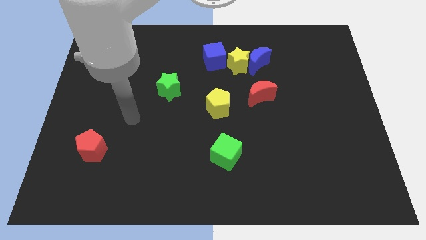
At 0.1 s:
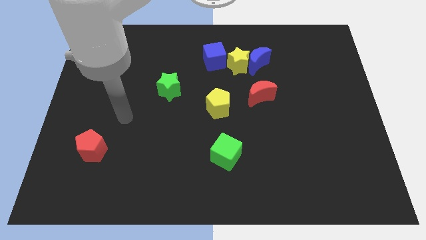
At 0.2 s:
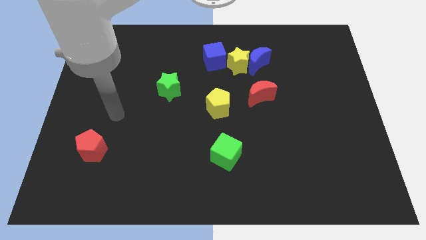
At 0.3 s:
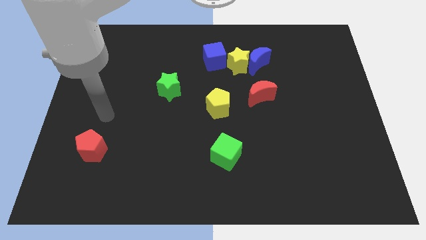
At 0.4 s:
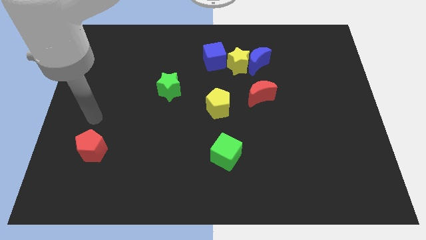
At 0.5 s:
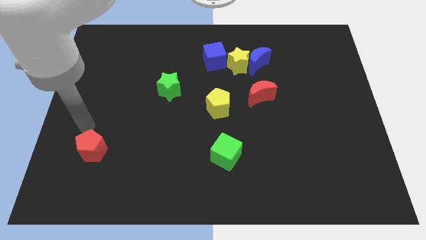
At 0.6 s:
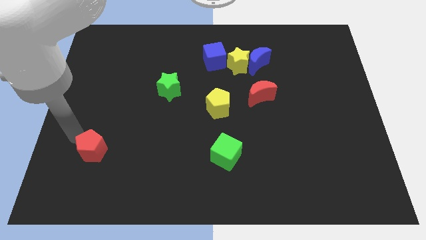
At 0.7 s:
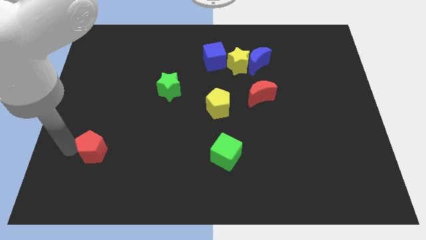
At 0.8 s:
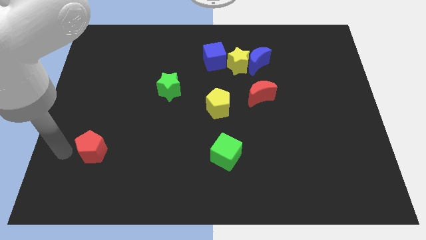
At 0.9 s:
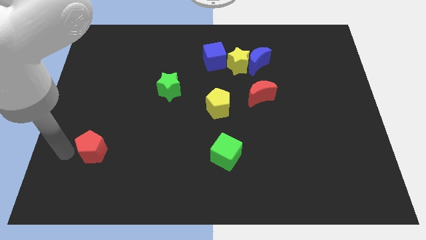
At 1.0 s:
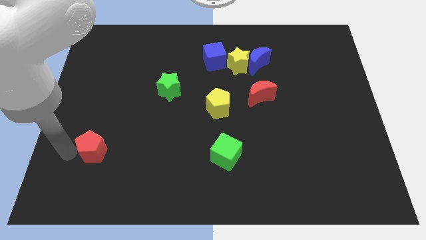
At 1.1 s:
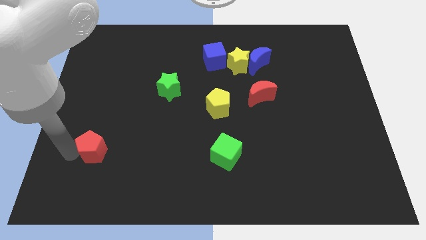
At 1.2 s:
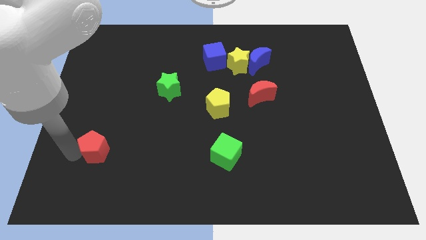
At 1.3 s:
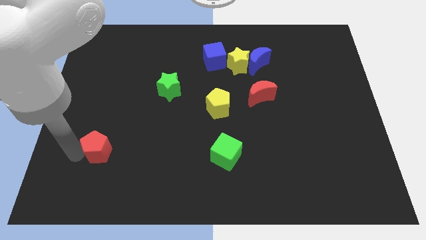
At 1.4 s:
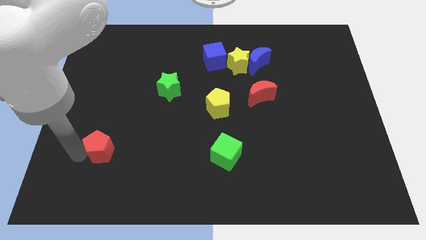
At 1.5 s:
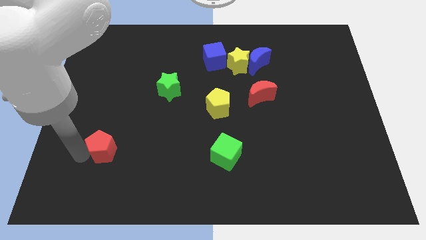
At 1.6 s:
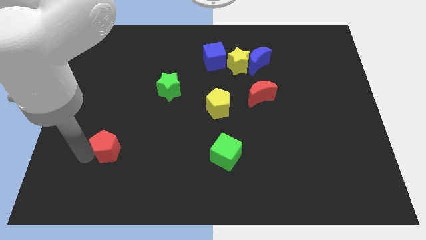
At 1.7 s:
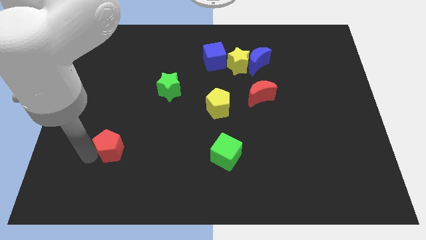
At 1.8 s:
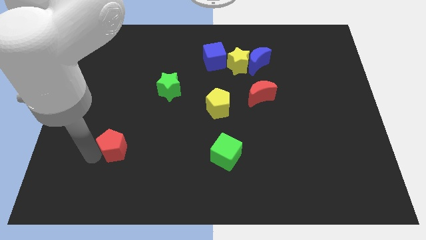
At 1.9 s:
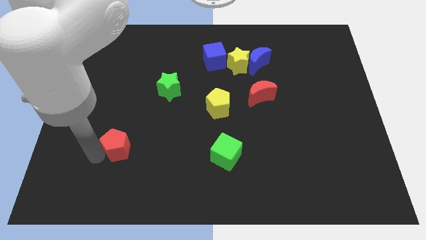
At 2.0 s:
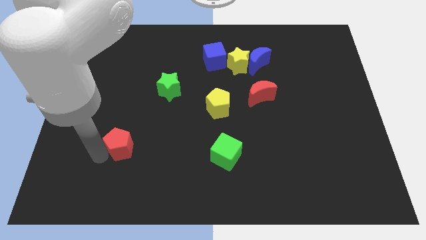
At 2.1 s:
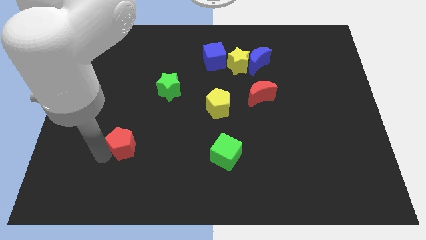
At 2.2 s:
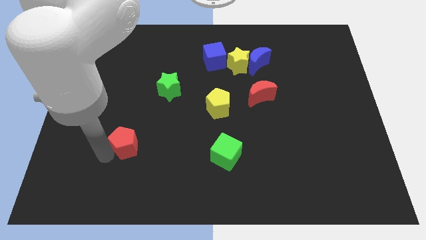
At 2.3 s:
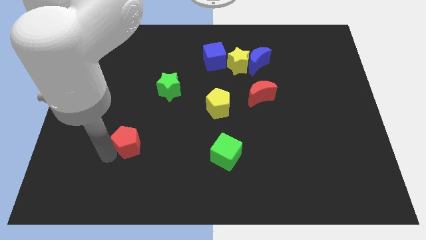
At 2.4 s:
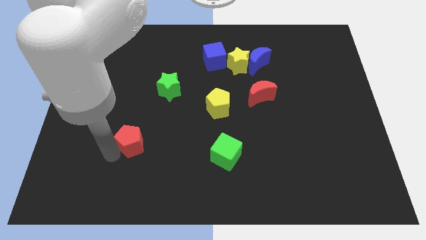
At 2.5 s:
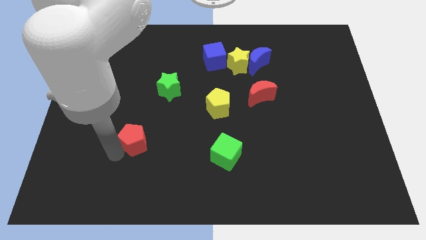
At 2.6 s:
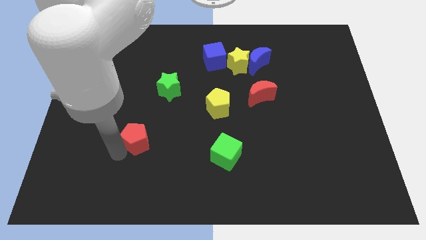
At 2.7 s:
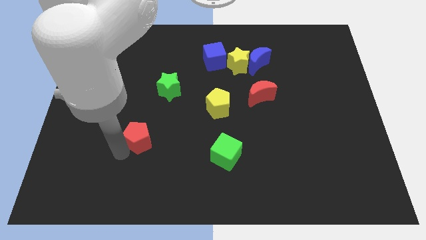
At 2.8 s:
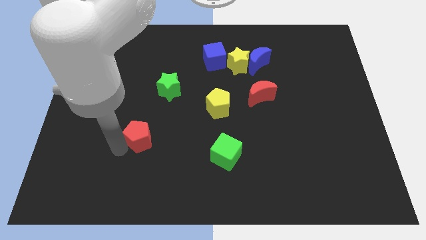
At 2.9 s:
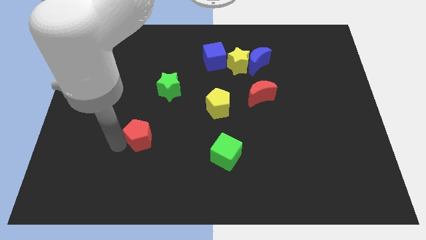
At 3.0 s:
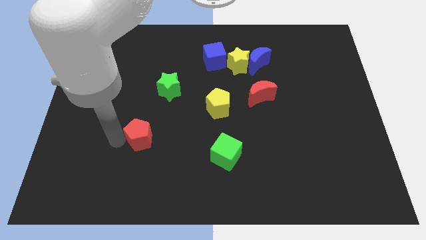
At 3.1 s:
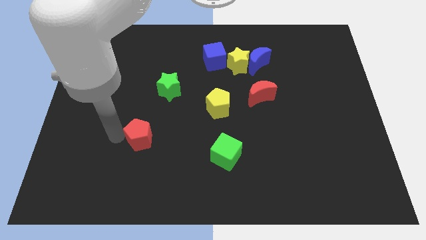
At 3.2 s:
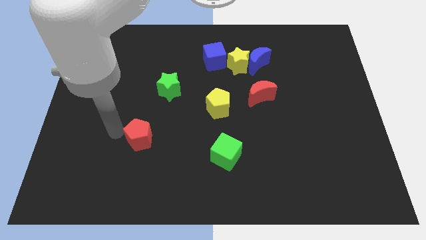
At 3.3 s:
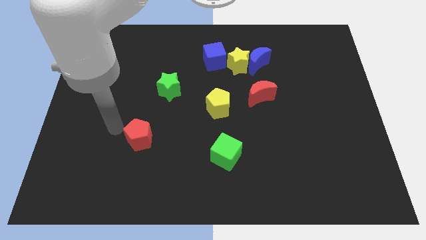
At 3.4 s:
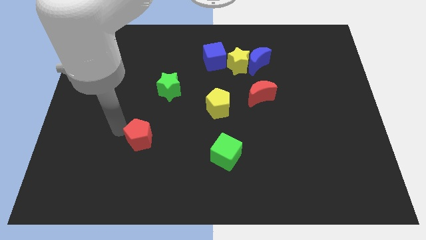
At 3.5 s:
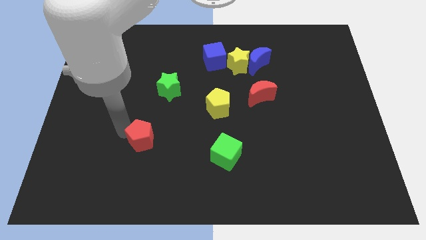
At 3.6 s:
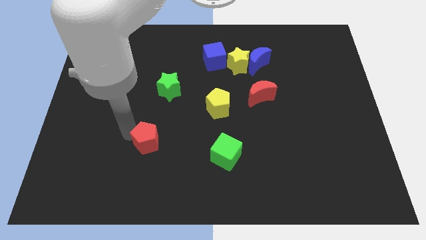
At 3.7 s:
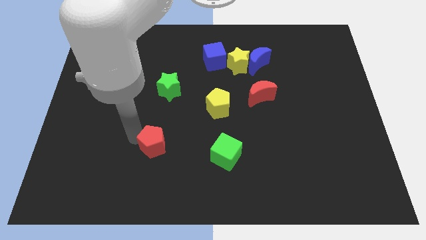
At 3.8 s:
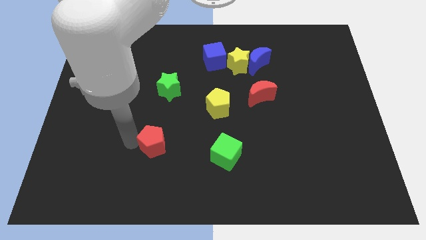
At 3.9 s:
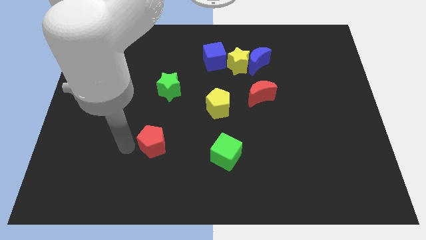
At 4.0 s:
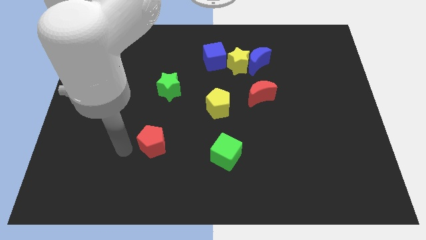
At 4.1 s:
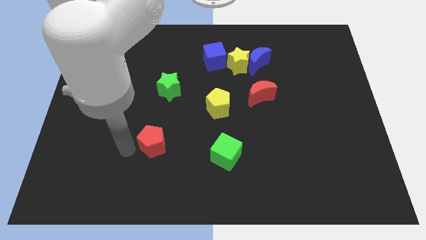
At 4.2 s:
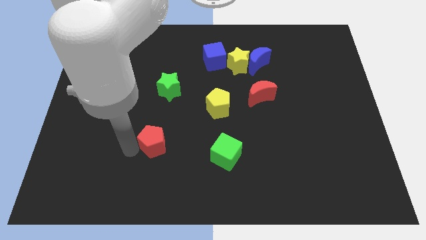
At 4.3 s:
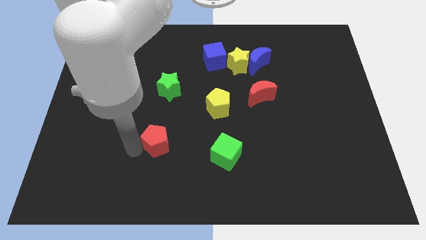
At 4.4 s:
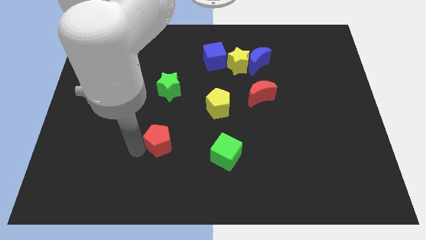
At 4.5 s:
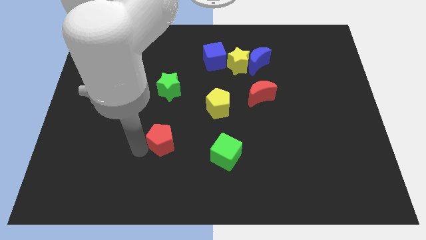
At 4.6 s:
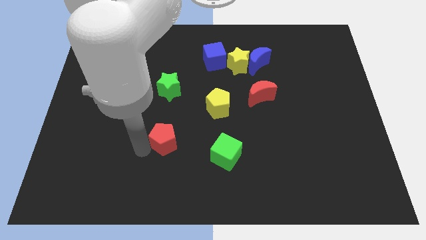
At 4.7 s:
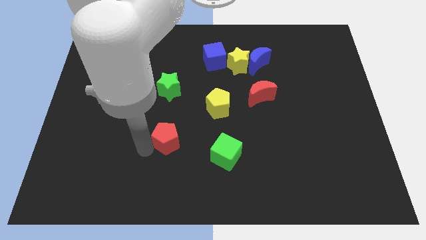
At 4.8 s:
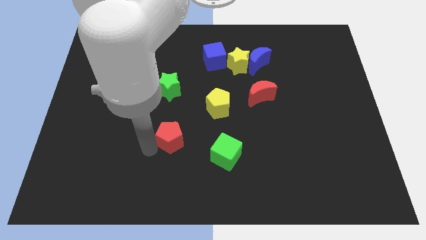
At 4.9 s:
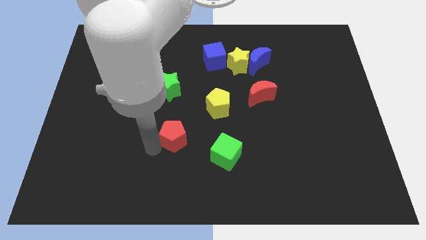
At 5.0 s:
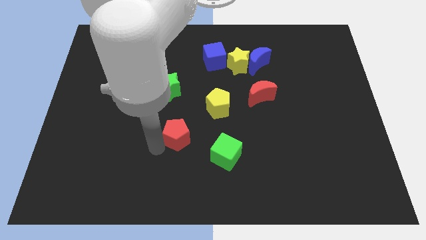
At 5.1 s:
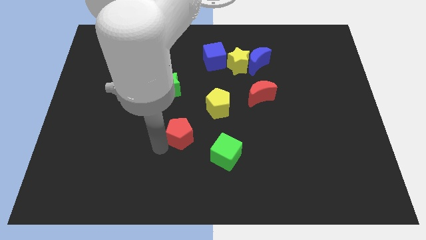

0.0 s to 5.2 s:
move the red pentagon to the top left of the green cube

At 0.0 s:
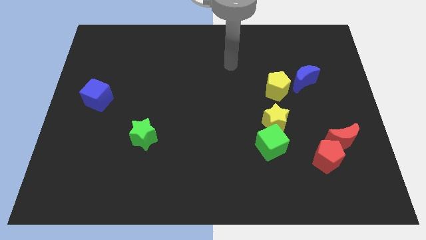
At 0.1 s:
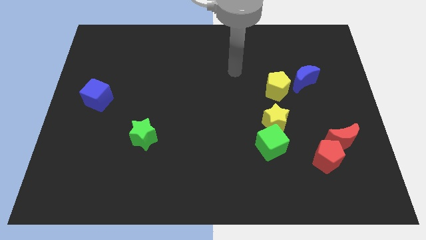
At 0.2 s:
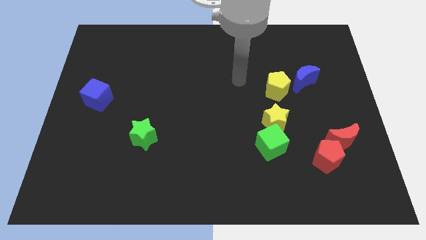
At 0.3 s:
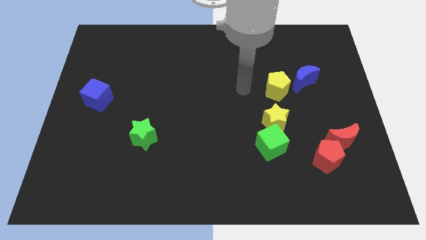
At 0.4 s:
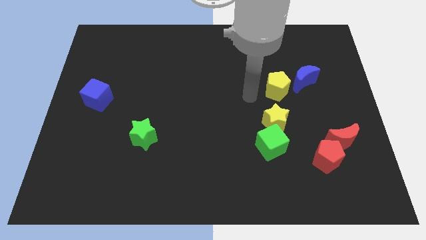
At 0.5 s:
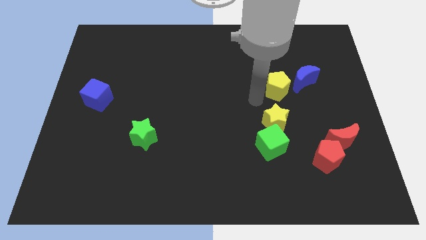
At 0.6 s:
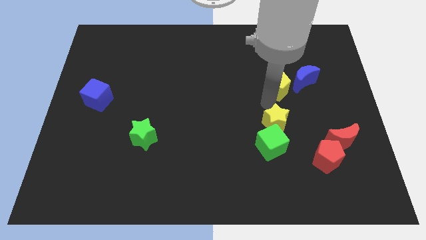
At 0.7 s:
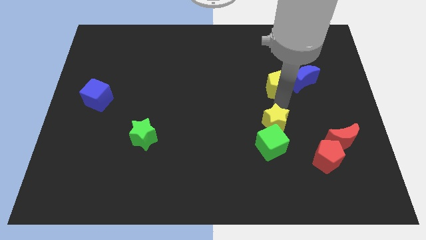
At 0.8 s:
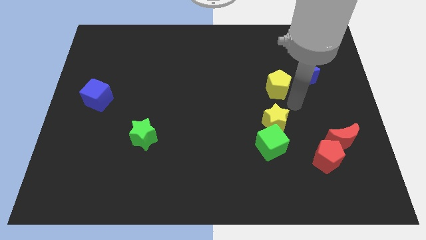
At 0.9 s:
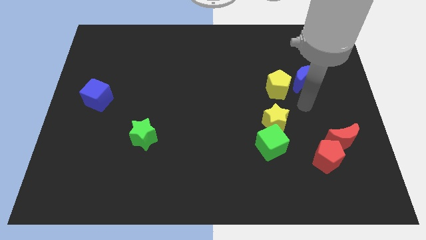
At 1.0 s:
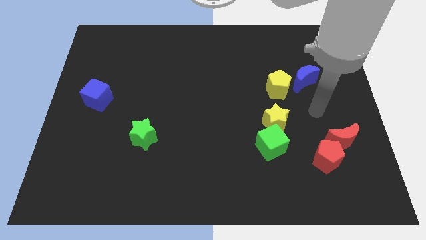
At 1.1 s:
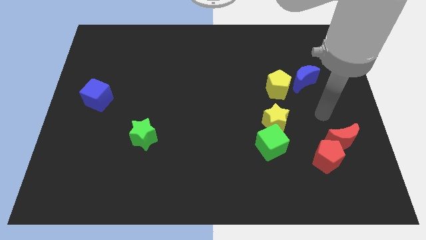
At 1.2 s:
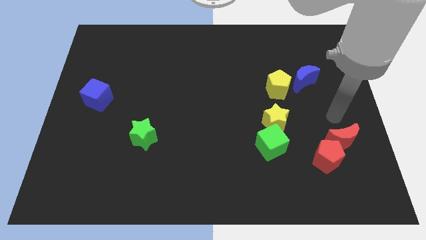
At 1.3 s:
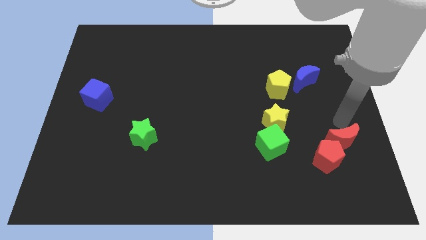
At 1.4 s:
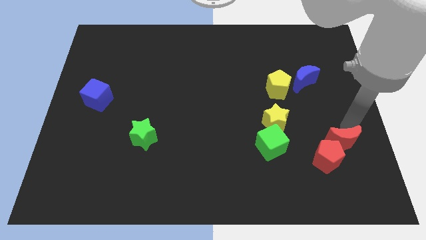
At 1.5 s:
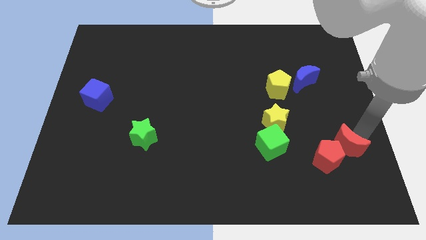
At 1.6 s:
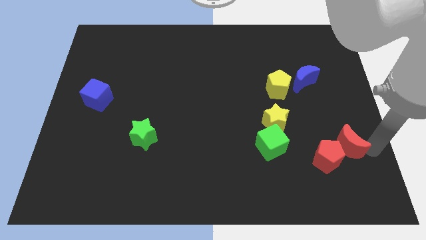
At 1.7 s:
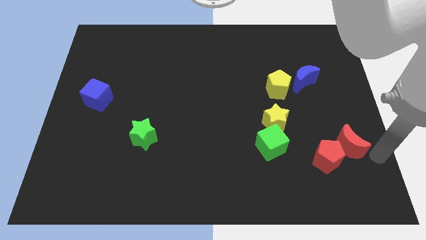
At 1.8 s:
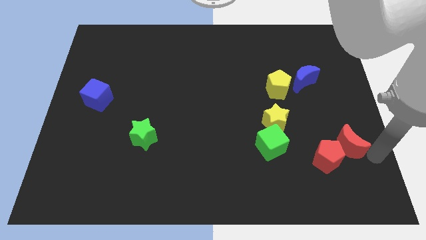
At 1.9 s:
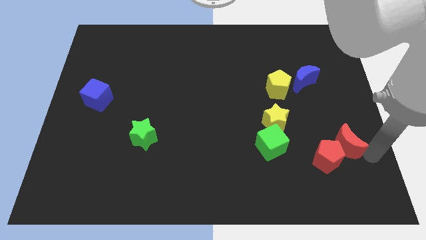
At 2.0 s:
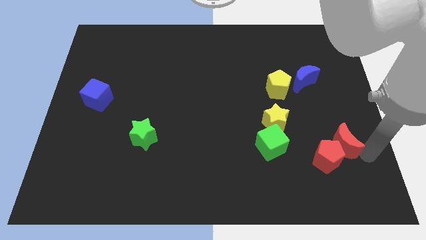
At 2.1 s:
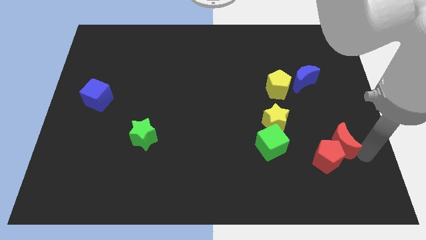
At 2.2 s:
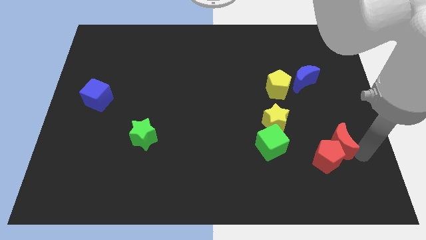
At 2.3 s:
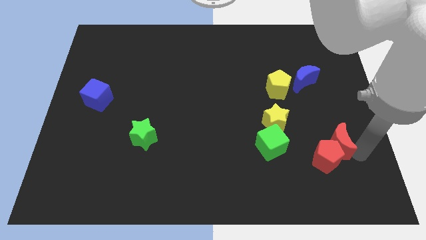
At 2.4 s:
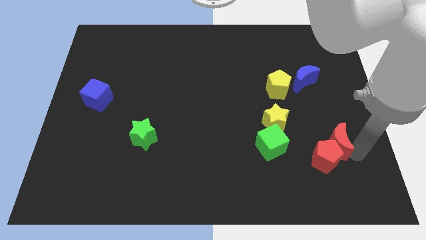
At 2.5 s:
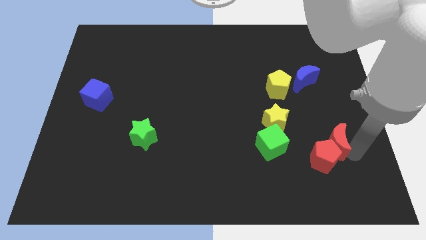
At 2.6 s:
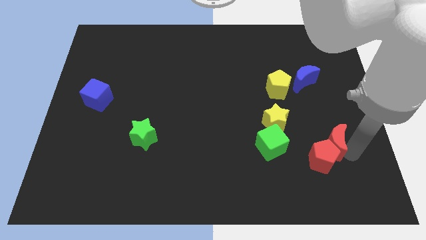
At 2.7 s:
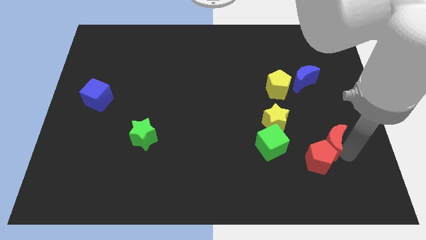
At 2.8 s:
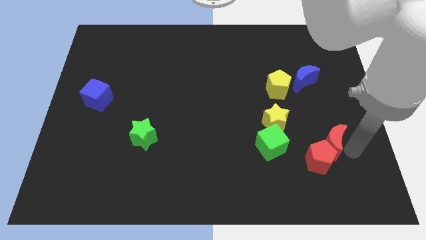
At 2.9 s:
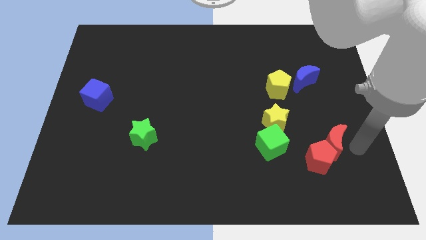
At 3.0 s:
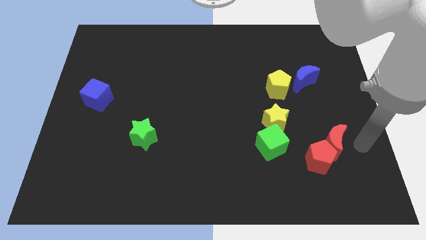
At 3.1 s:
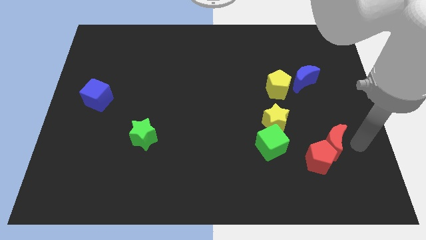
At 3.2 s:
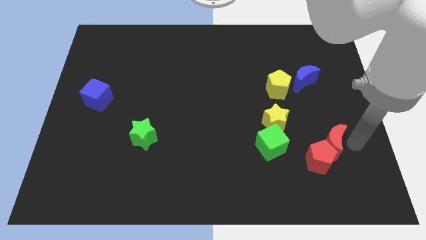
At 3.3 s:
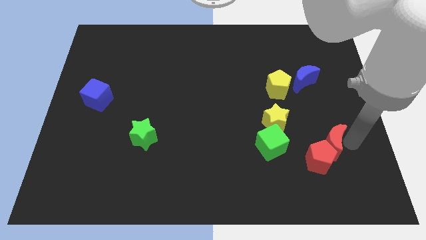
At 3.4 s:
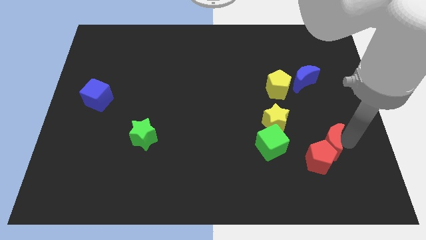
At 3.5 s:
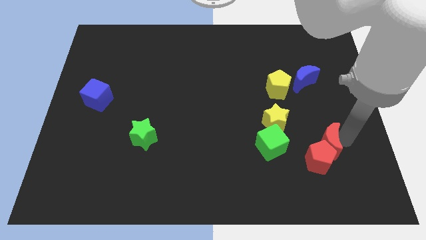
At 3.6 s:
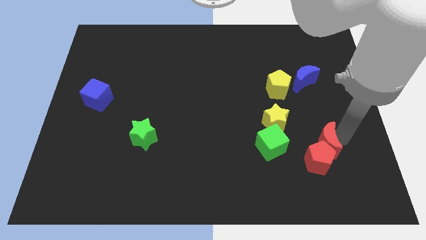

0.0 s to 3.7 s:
push the red moon to the bottom right of the yellow star
